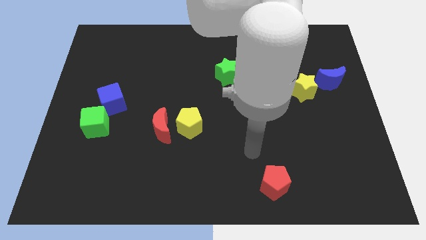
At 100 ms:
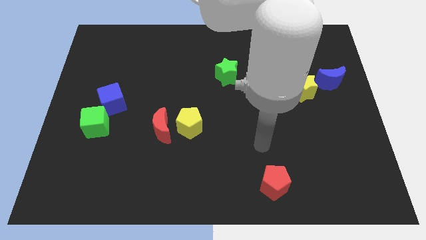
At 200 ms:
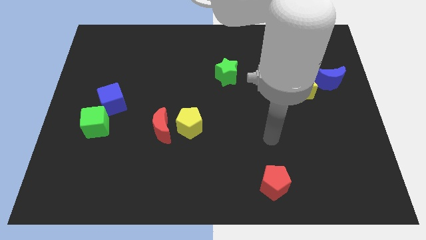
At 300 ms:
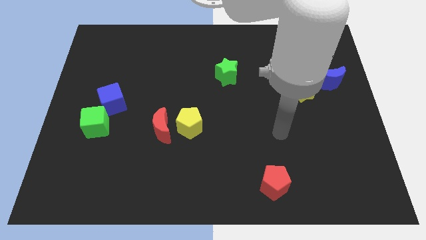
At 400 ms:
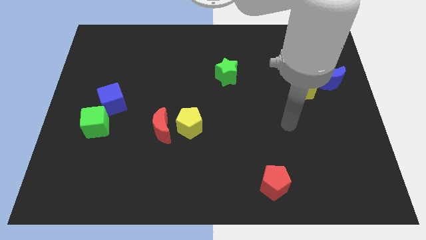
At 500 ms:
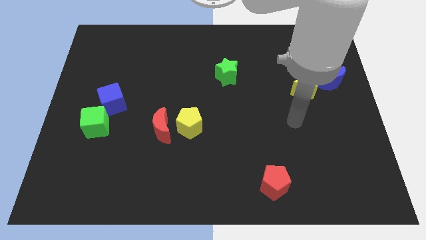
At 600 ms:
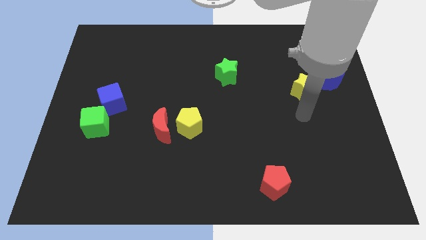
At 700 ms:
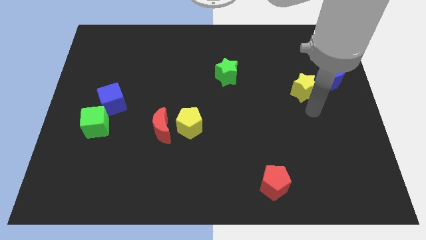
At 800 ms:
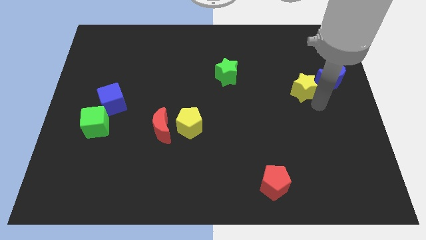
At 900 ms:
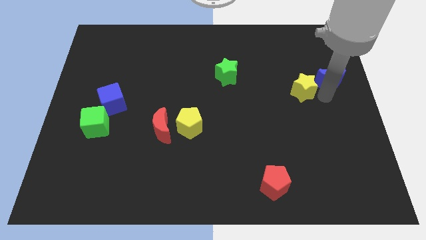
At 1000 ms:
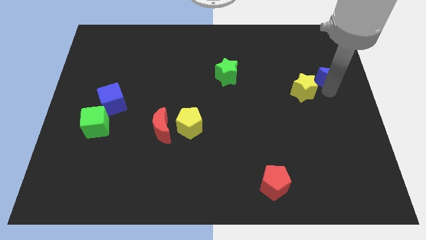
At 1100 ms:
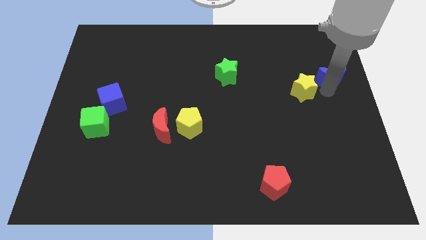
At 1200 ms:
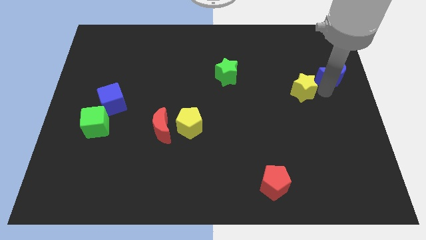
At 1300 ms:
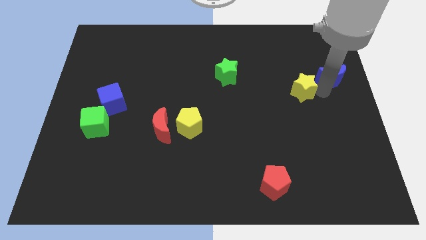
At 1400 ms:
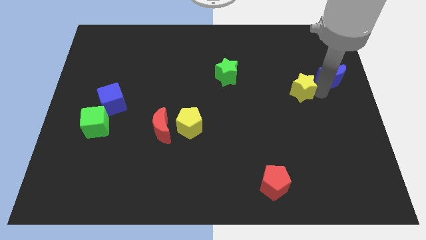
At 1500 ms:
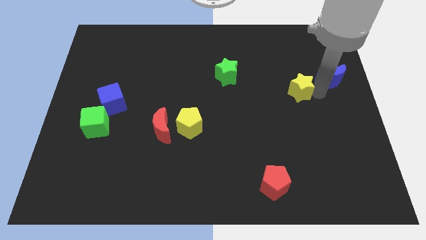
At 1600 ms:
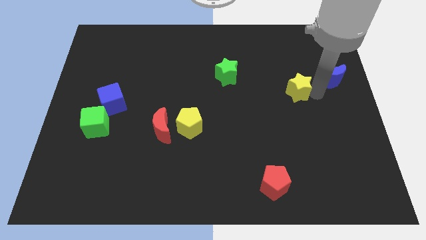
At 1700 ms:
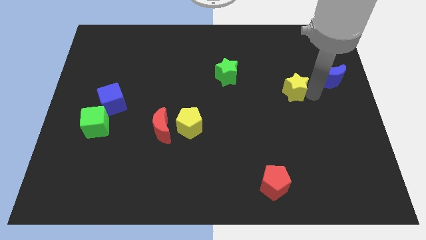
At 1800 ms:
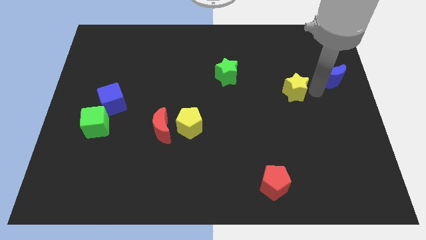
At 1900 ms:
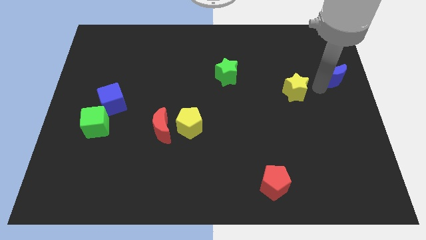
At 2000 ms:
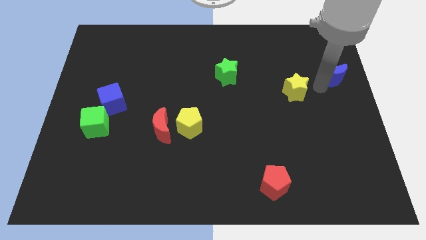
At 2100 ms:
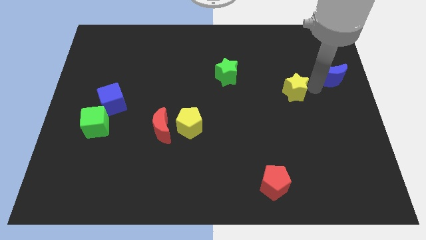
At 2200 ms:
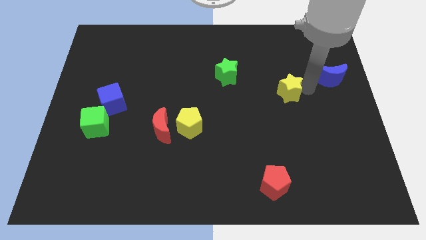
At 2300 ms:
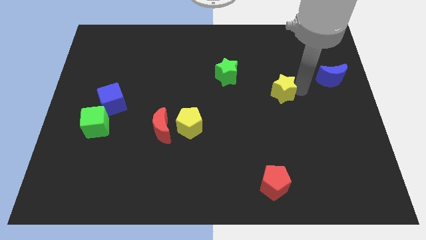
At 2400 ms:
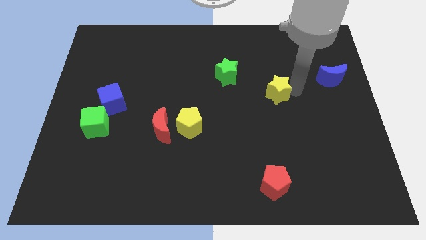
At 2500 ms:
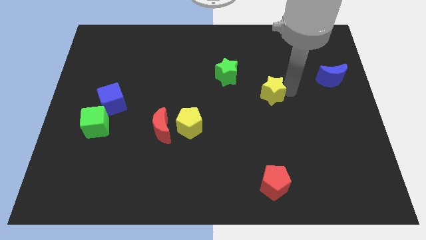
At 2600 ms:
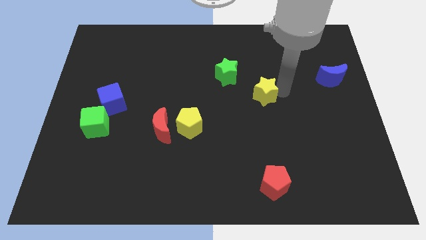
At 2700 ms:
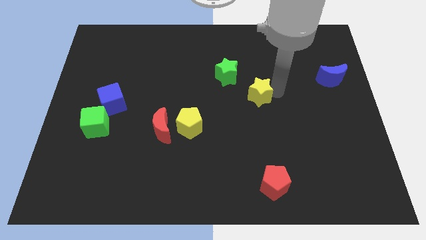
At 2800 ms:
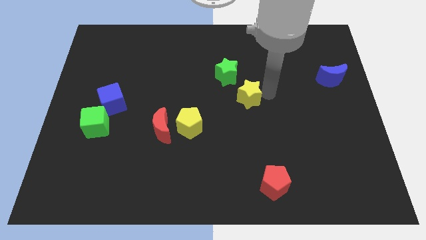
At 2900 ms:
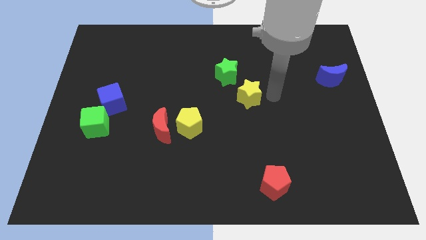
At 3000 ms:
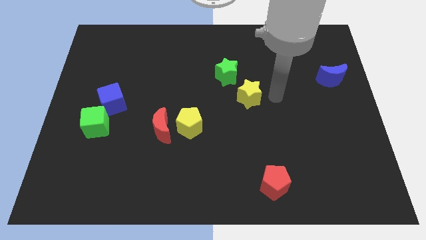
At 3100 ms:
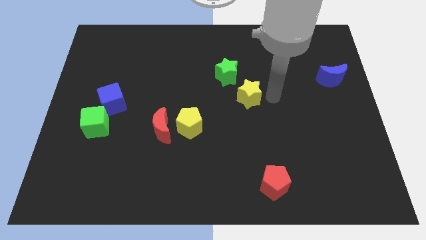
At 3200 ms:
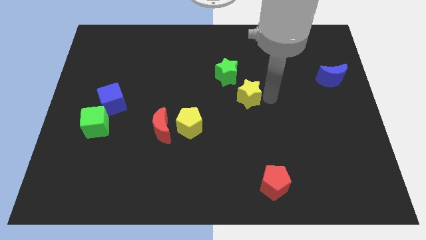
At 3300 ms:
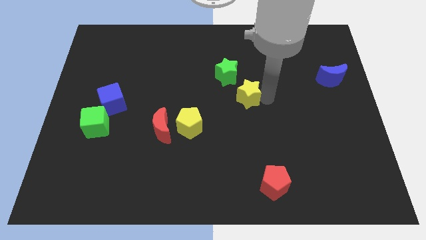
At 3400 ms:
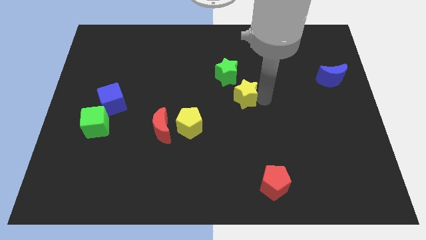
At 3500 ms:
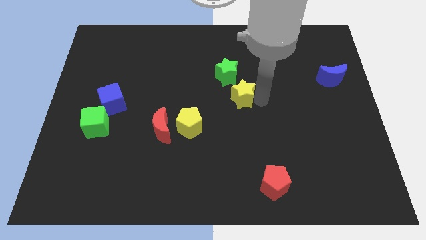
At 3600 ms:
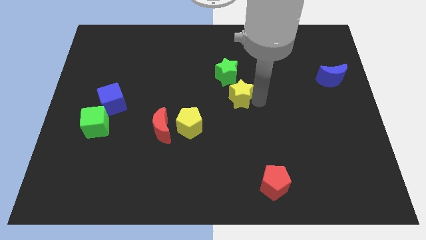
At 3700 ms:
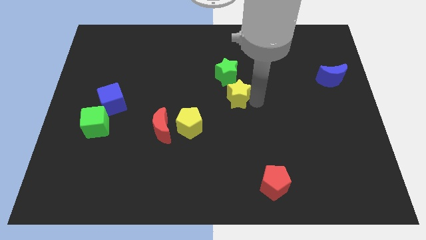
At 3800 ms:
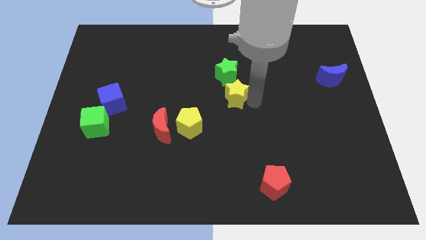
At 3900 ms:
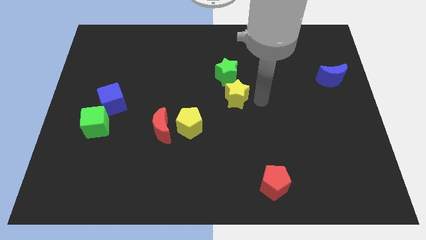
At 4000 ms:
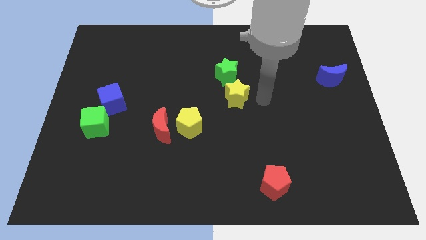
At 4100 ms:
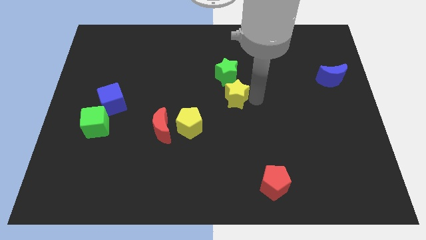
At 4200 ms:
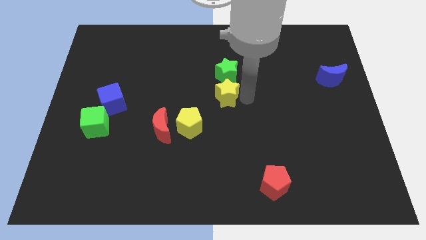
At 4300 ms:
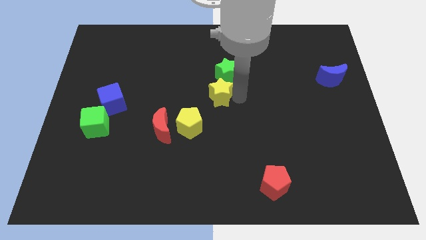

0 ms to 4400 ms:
move the yellow star left

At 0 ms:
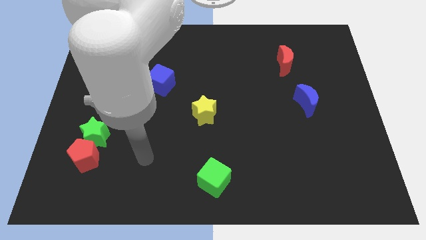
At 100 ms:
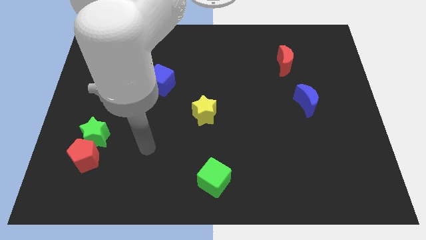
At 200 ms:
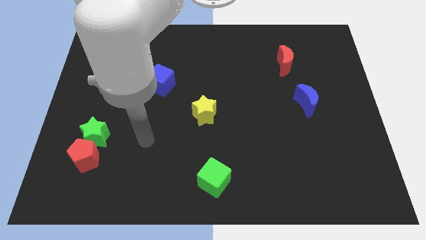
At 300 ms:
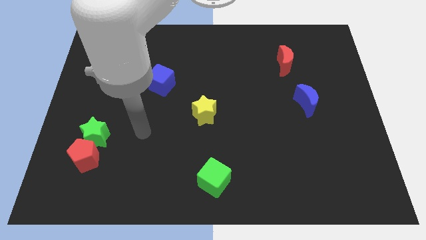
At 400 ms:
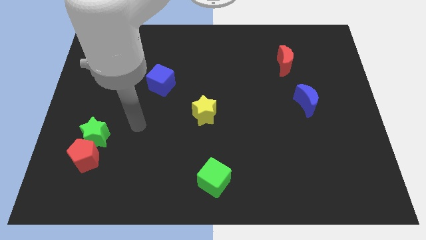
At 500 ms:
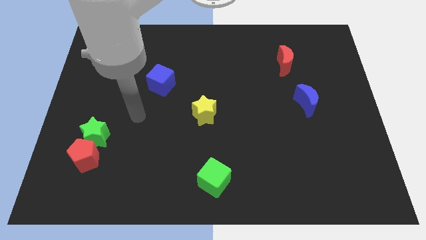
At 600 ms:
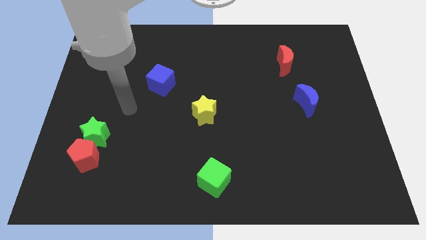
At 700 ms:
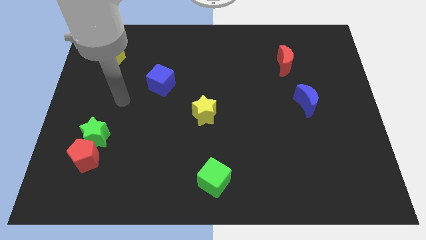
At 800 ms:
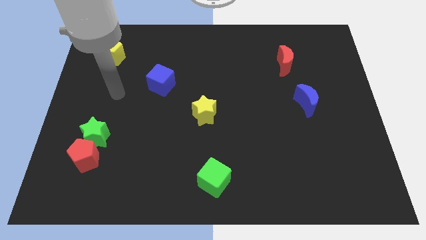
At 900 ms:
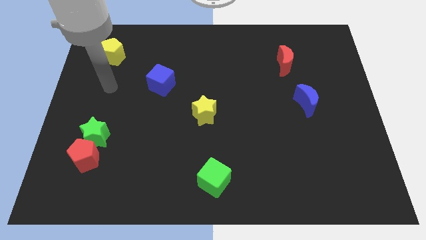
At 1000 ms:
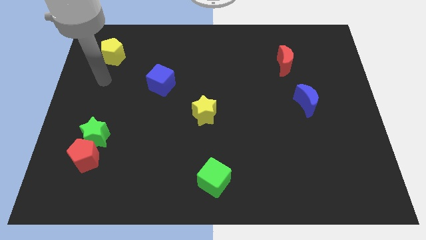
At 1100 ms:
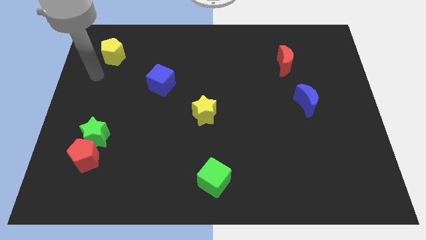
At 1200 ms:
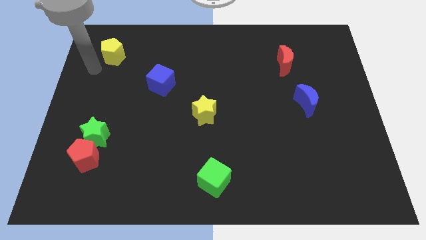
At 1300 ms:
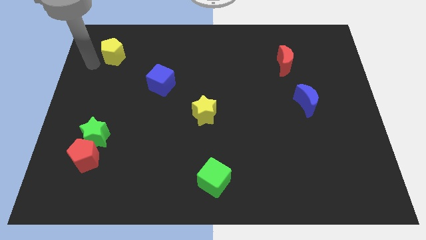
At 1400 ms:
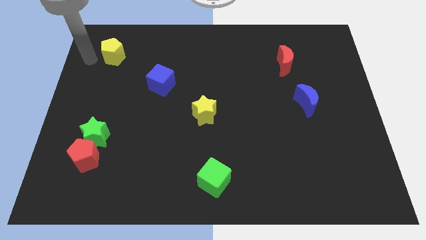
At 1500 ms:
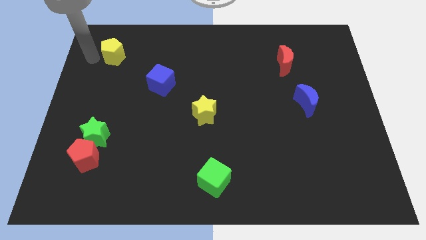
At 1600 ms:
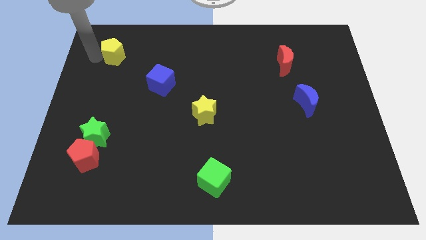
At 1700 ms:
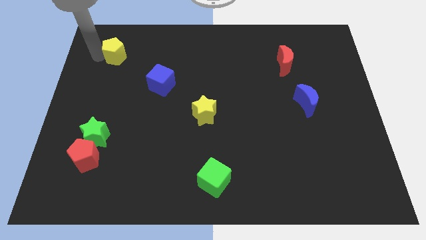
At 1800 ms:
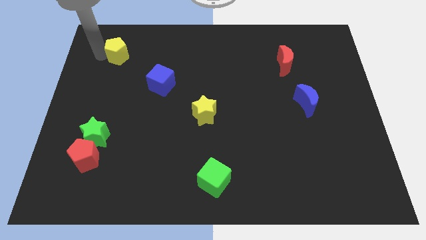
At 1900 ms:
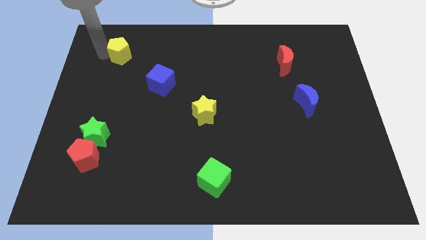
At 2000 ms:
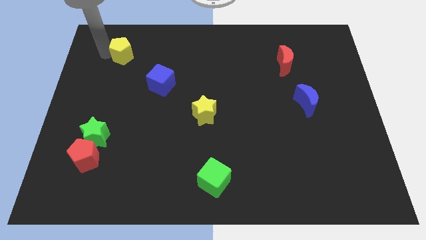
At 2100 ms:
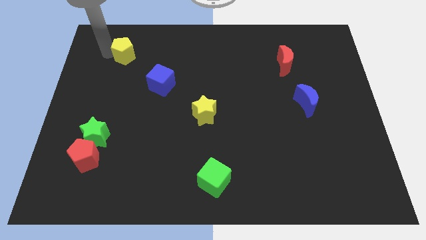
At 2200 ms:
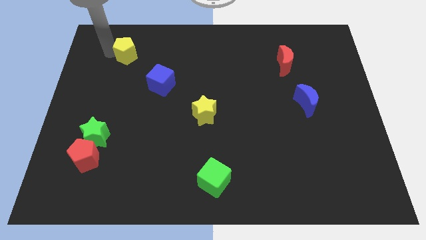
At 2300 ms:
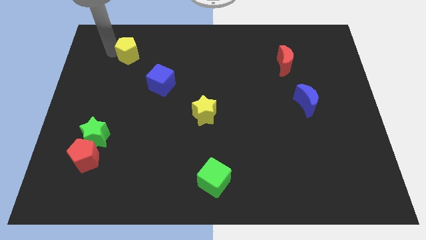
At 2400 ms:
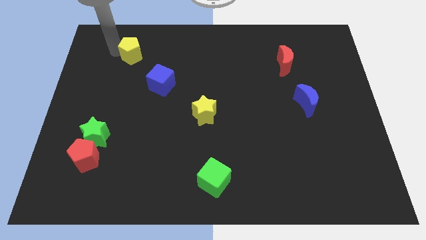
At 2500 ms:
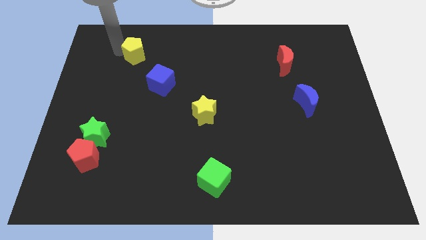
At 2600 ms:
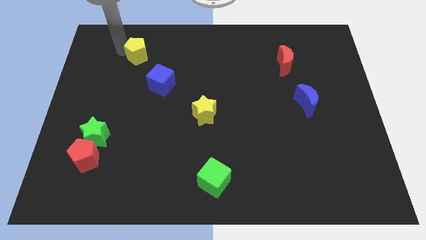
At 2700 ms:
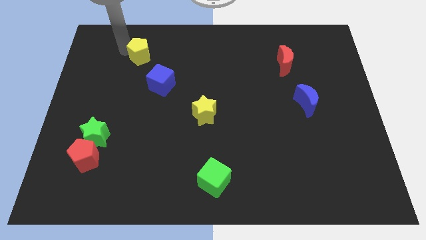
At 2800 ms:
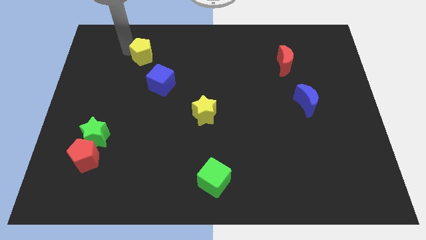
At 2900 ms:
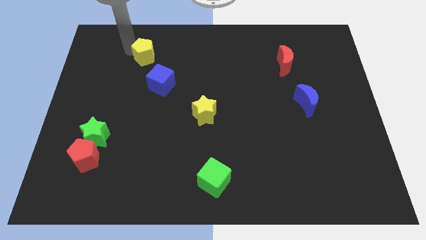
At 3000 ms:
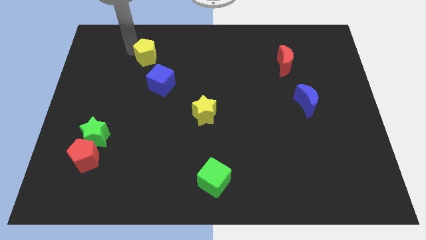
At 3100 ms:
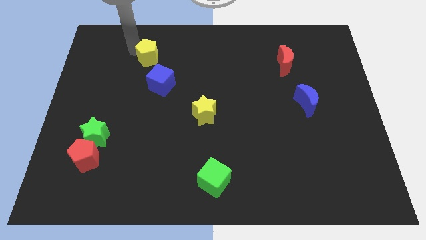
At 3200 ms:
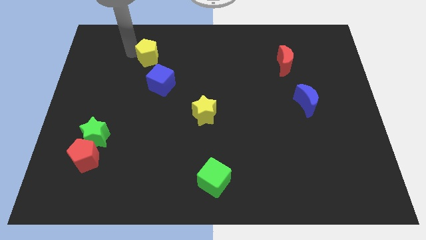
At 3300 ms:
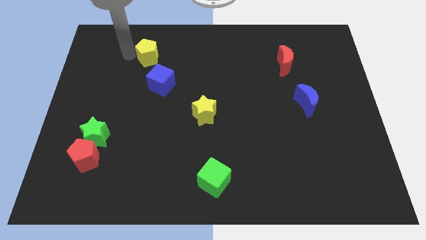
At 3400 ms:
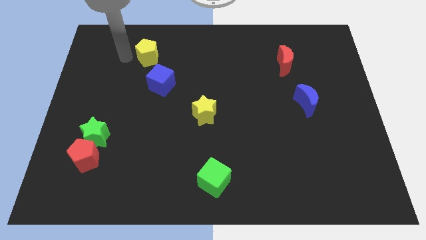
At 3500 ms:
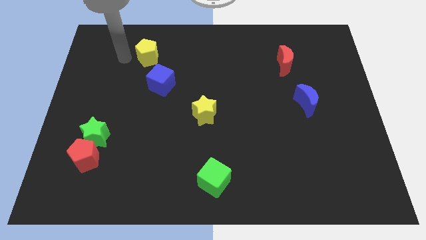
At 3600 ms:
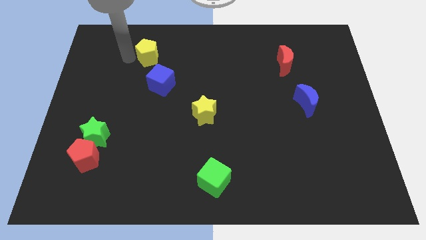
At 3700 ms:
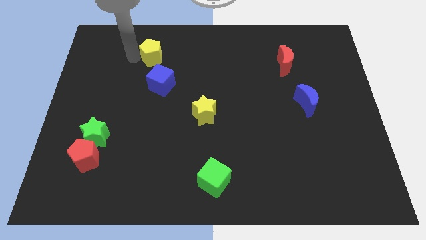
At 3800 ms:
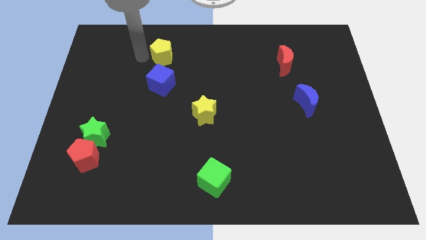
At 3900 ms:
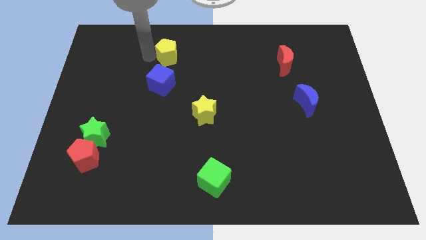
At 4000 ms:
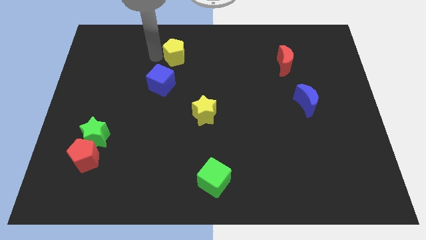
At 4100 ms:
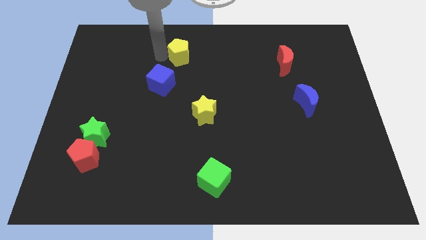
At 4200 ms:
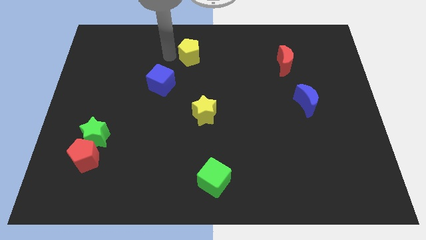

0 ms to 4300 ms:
move the yellow pentagon to the right
